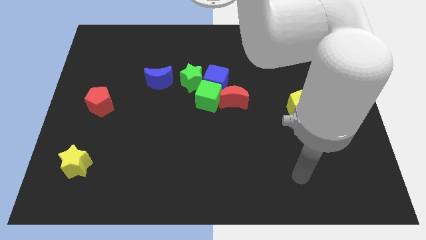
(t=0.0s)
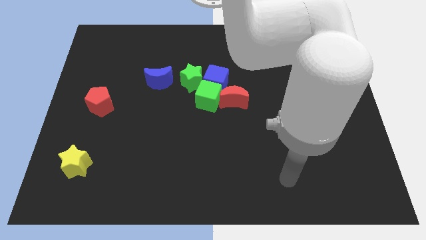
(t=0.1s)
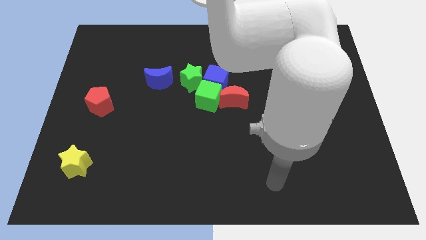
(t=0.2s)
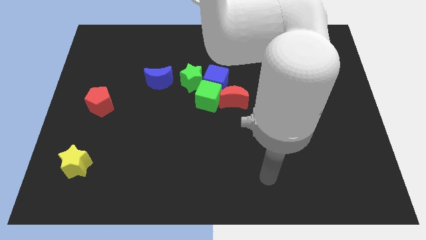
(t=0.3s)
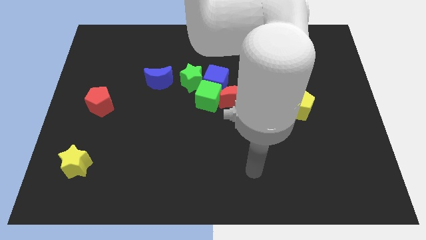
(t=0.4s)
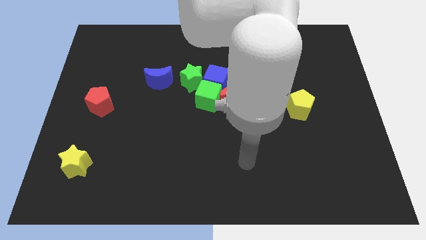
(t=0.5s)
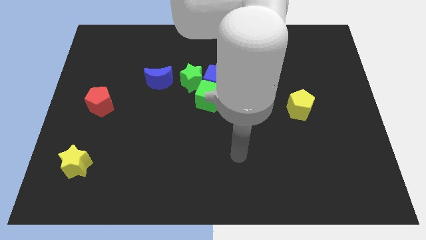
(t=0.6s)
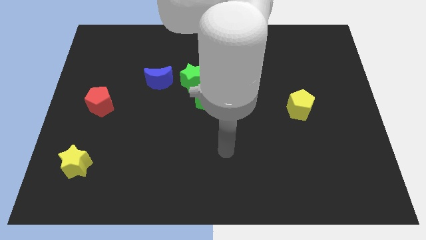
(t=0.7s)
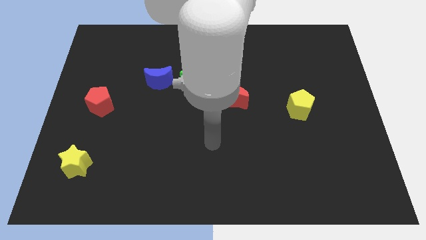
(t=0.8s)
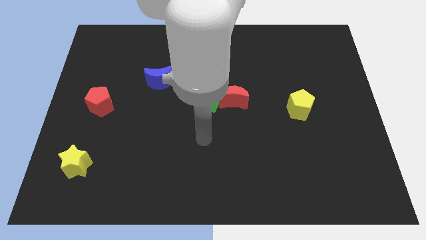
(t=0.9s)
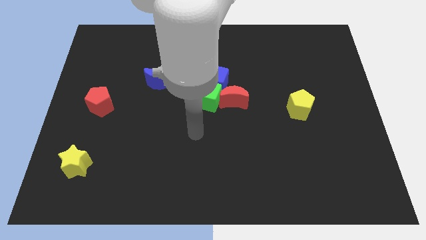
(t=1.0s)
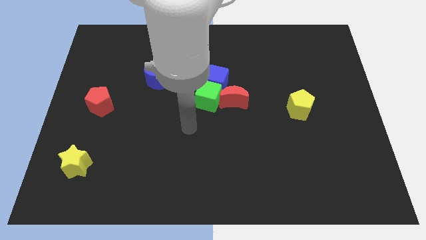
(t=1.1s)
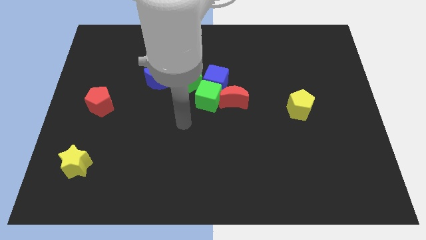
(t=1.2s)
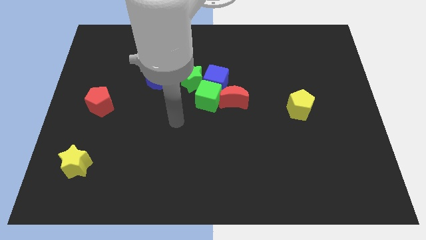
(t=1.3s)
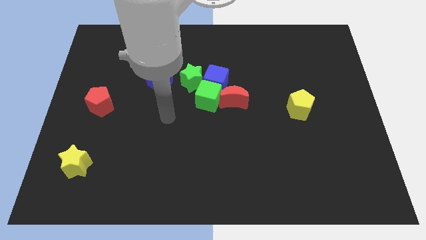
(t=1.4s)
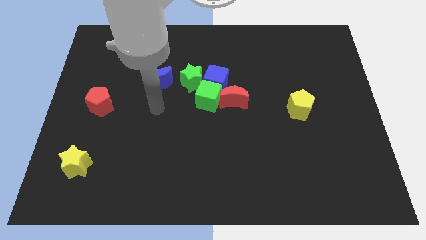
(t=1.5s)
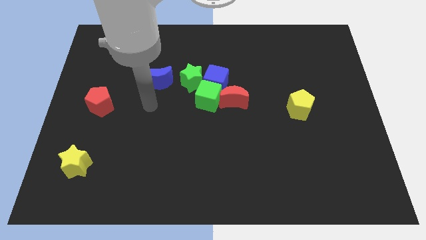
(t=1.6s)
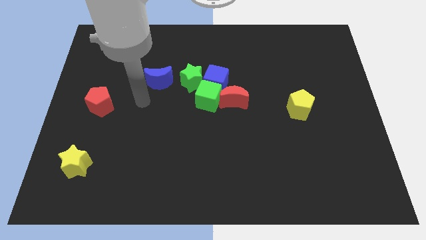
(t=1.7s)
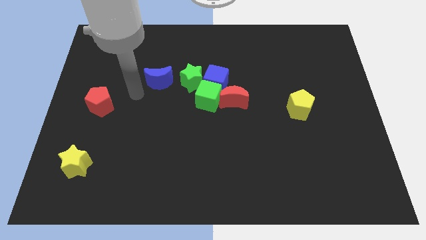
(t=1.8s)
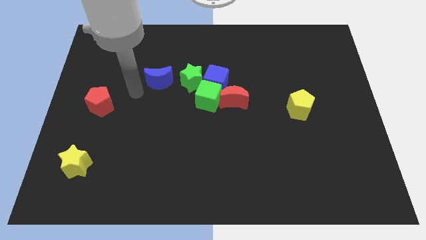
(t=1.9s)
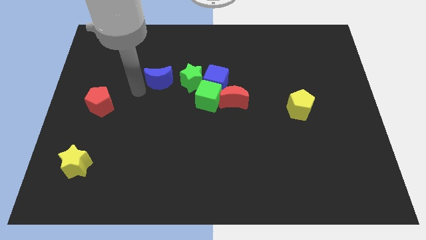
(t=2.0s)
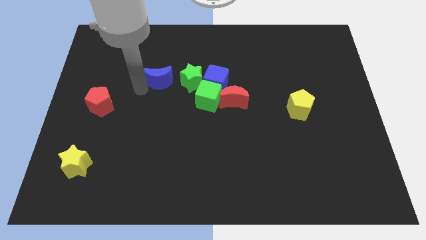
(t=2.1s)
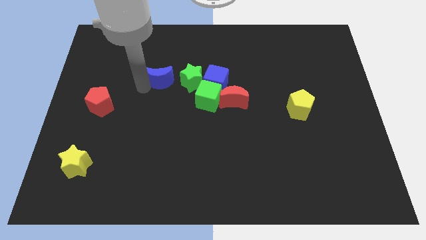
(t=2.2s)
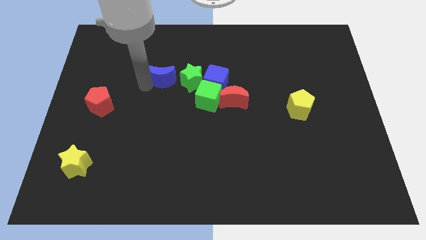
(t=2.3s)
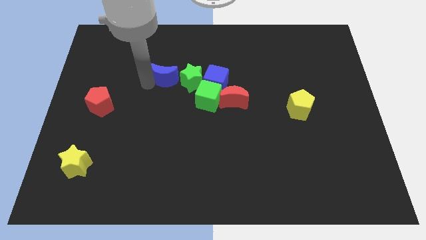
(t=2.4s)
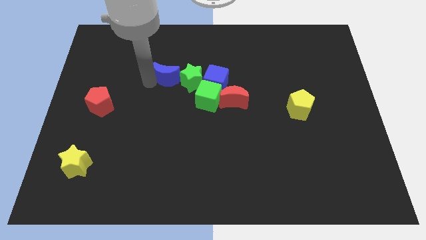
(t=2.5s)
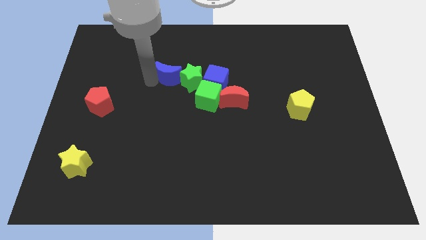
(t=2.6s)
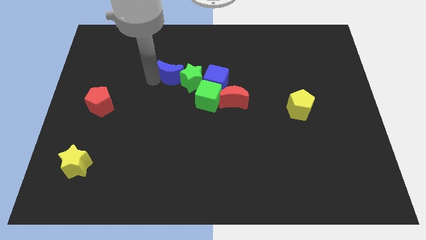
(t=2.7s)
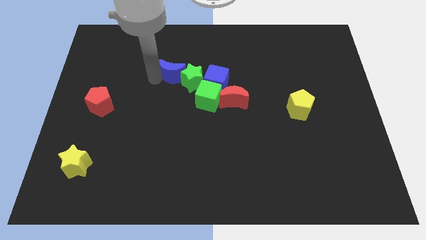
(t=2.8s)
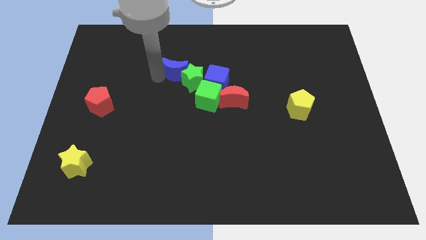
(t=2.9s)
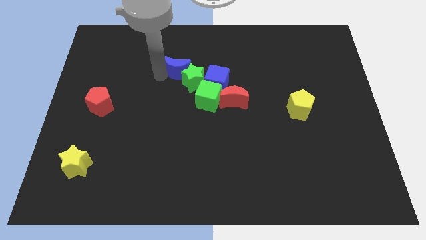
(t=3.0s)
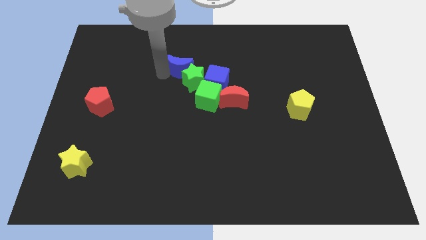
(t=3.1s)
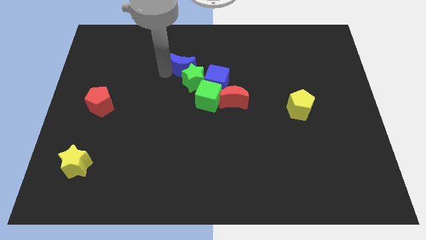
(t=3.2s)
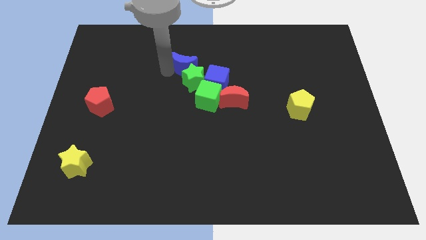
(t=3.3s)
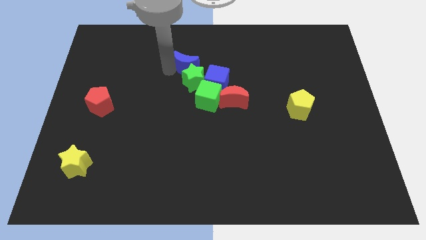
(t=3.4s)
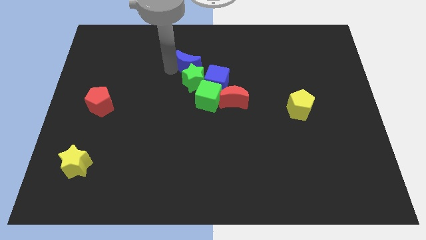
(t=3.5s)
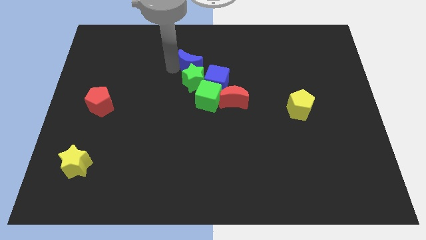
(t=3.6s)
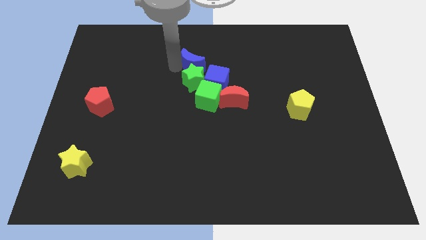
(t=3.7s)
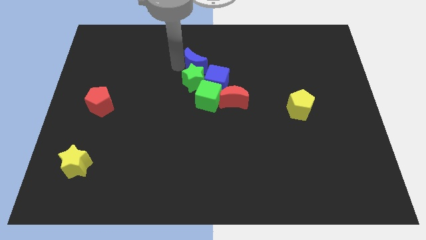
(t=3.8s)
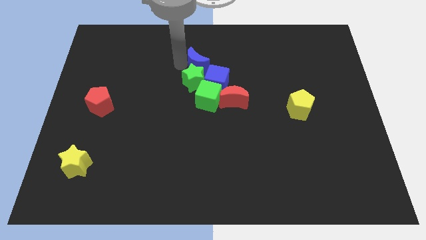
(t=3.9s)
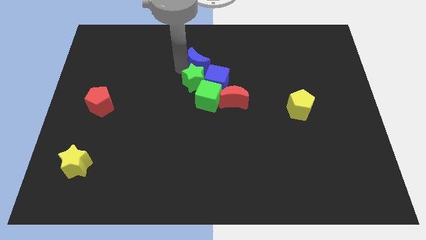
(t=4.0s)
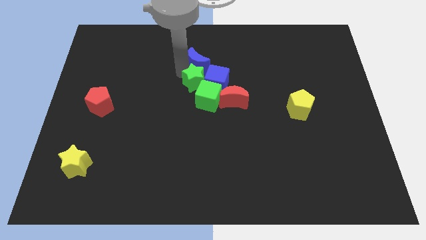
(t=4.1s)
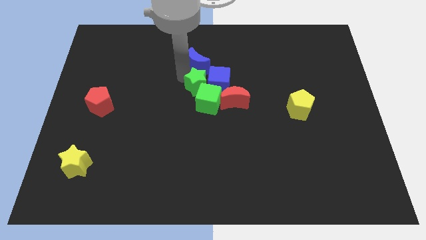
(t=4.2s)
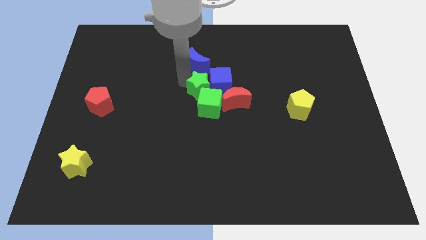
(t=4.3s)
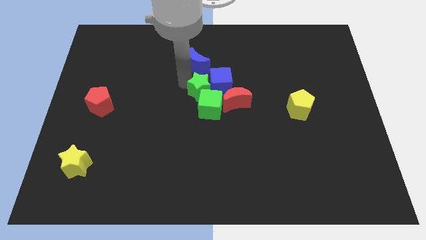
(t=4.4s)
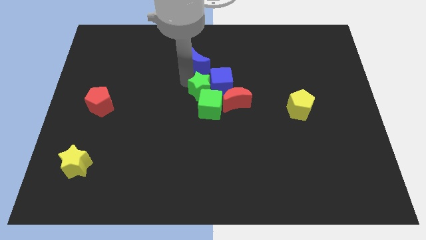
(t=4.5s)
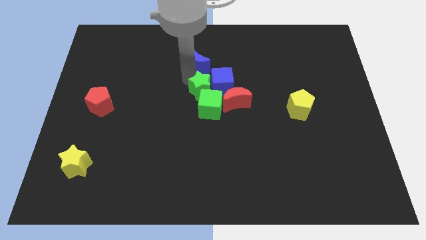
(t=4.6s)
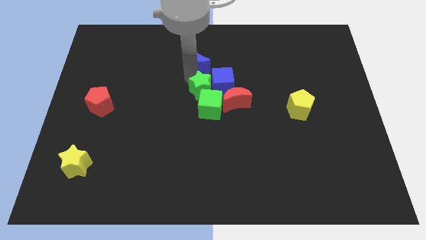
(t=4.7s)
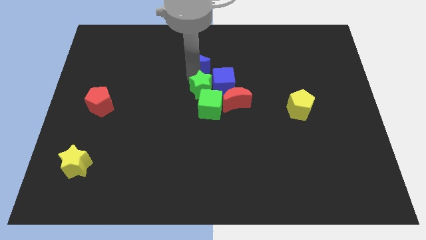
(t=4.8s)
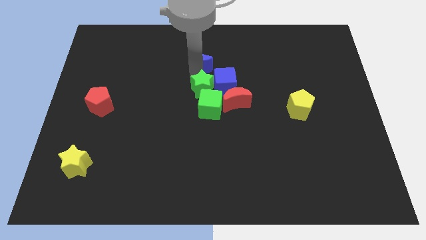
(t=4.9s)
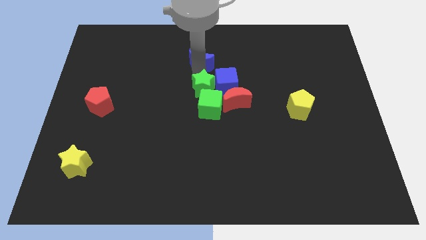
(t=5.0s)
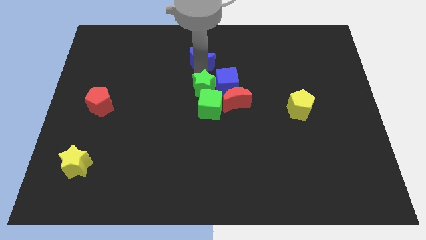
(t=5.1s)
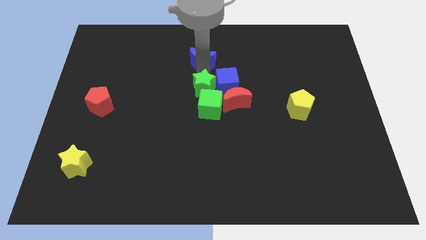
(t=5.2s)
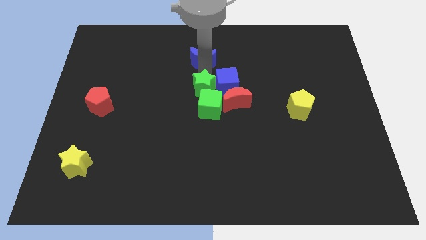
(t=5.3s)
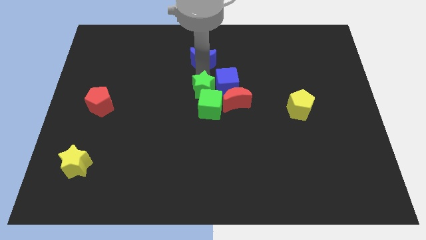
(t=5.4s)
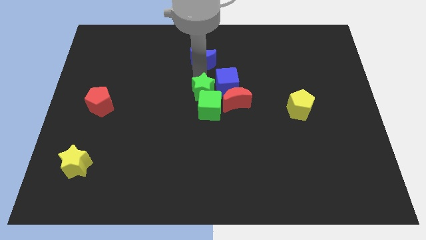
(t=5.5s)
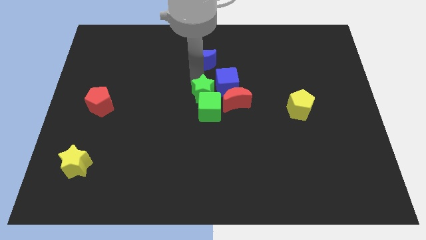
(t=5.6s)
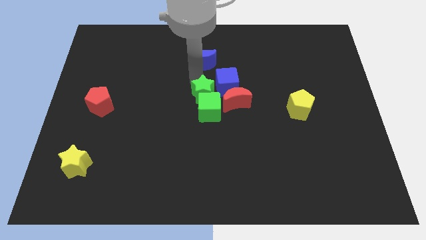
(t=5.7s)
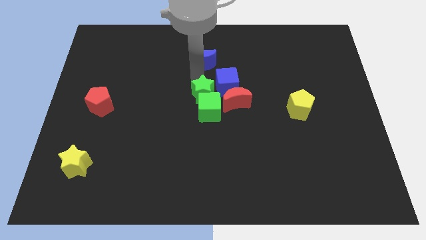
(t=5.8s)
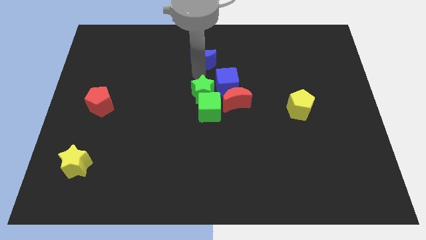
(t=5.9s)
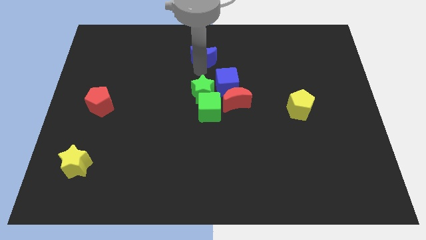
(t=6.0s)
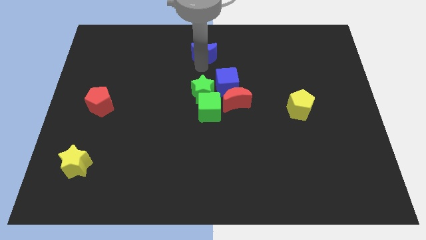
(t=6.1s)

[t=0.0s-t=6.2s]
put the blue moon to the top side
